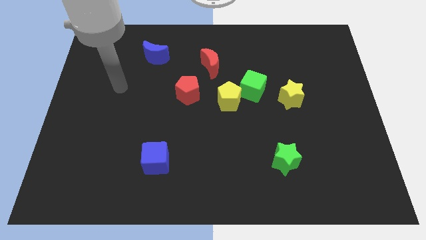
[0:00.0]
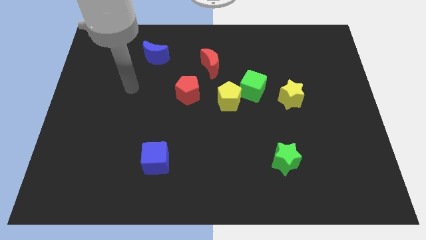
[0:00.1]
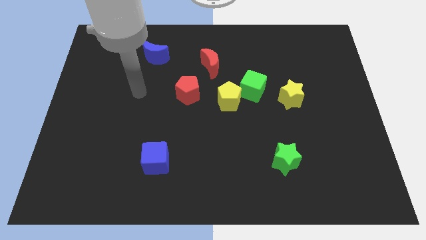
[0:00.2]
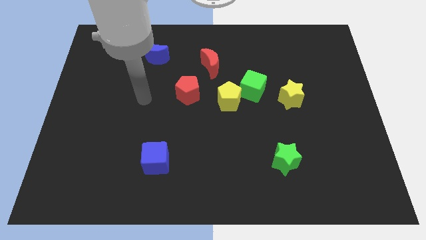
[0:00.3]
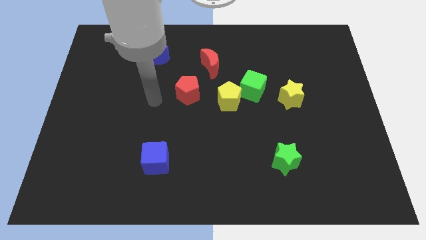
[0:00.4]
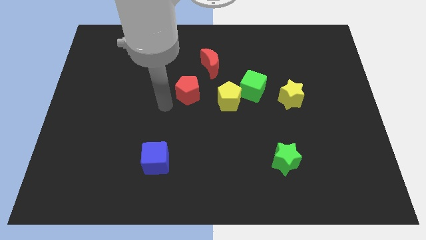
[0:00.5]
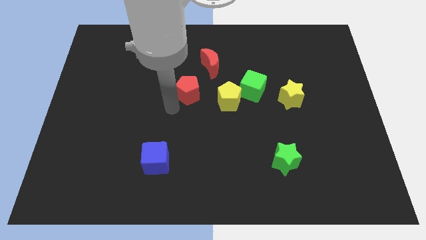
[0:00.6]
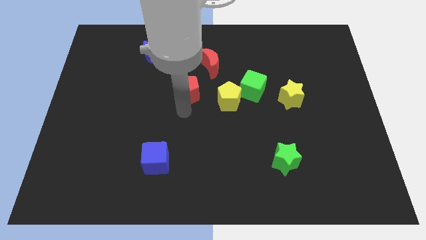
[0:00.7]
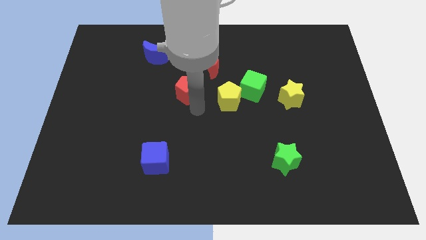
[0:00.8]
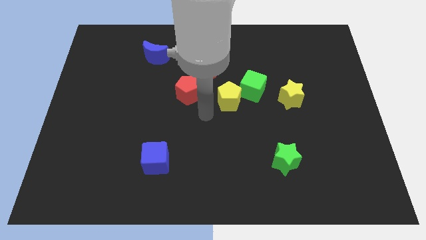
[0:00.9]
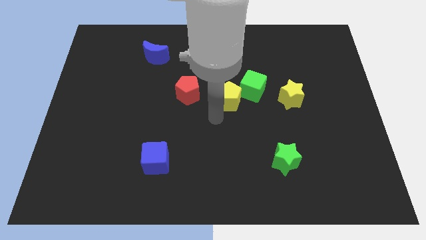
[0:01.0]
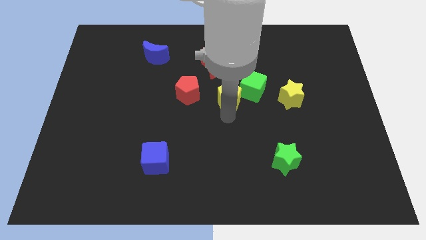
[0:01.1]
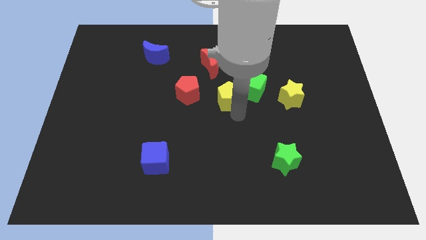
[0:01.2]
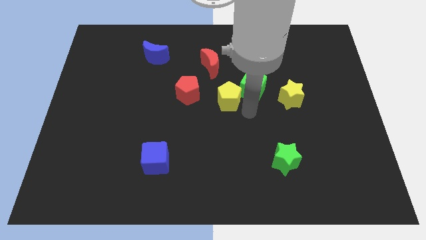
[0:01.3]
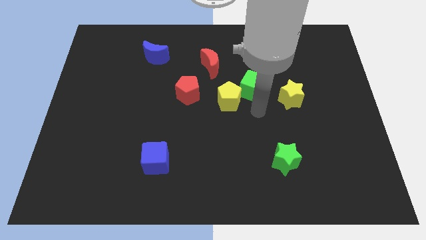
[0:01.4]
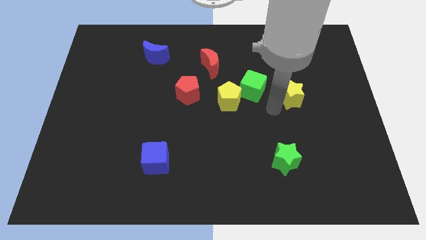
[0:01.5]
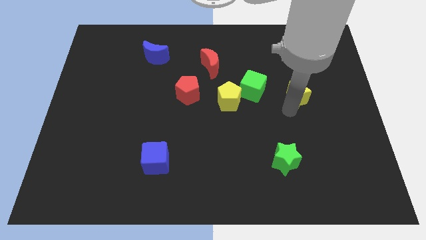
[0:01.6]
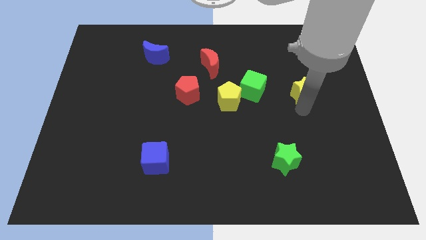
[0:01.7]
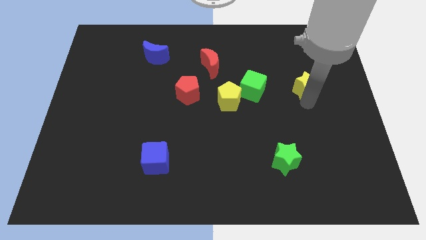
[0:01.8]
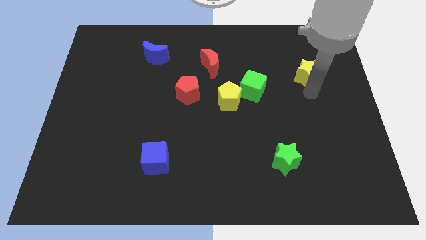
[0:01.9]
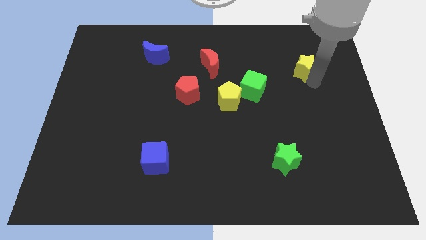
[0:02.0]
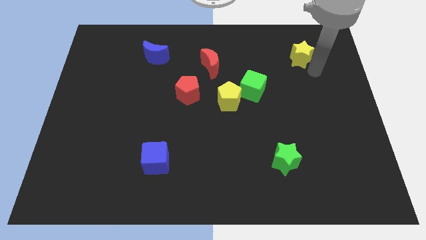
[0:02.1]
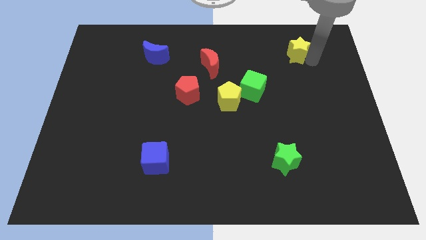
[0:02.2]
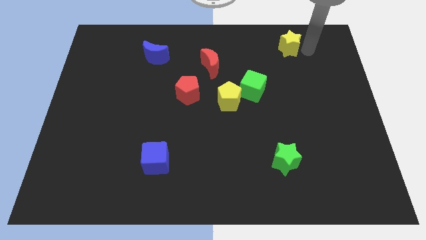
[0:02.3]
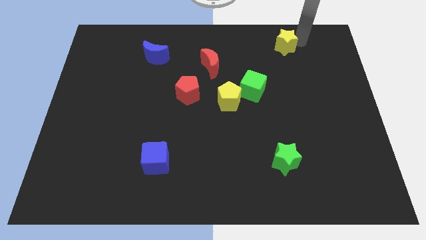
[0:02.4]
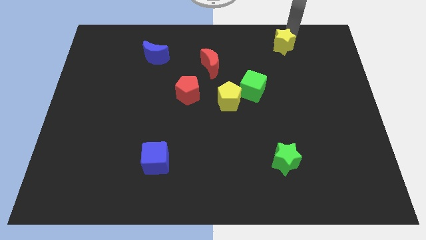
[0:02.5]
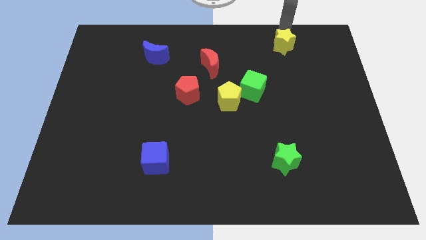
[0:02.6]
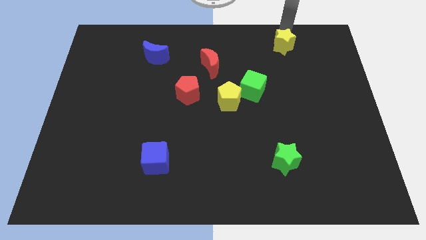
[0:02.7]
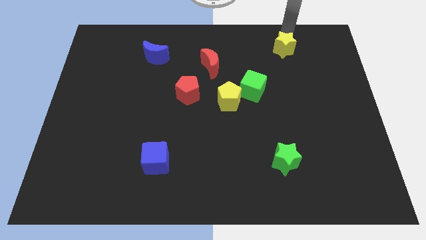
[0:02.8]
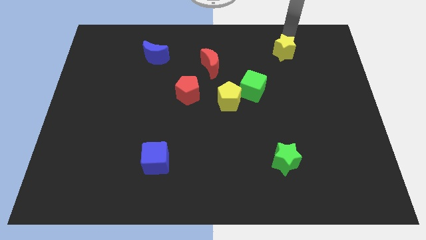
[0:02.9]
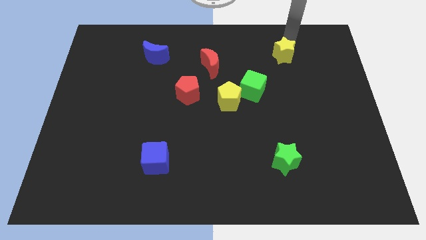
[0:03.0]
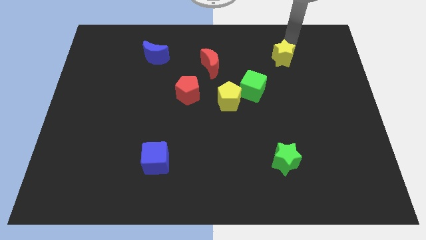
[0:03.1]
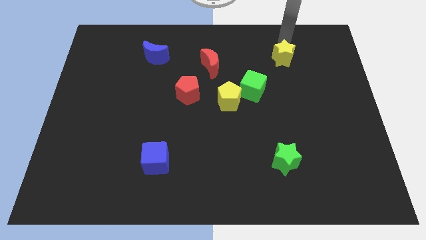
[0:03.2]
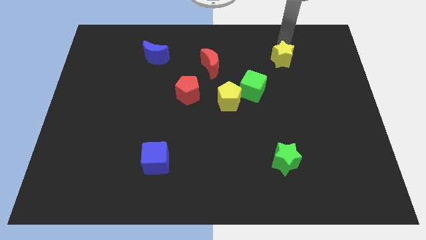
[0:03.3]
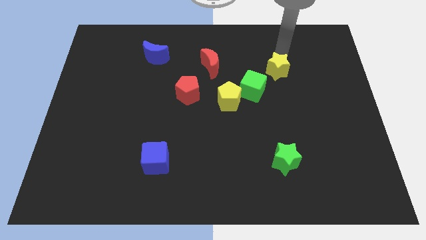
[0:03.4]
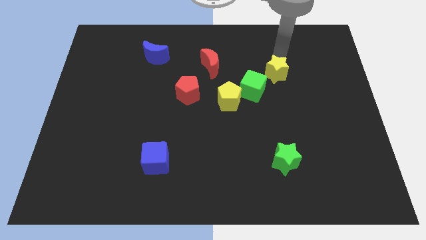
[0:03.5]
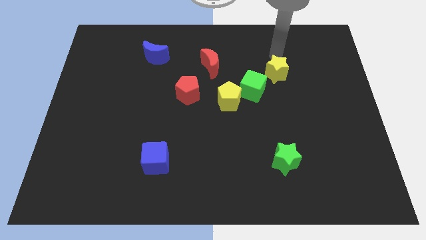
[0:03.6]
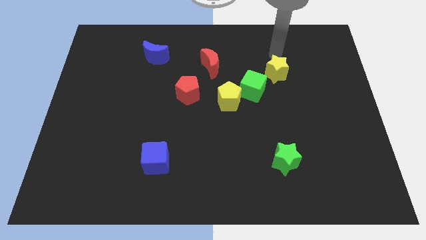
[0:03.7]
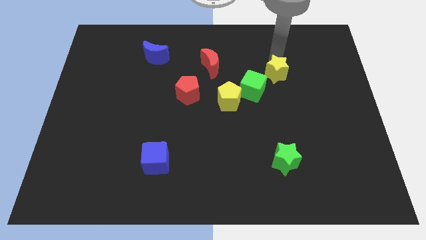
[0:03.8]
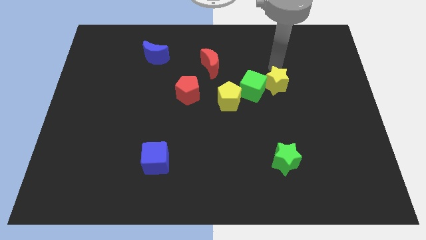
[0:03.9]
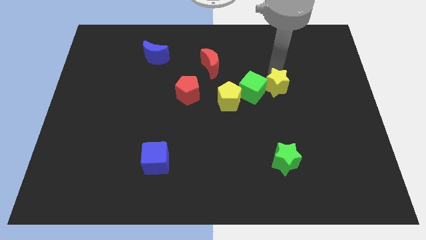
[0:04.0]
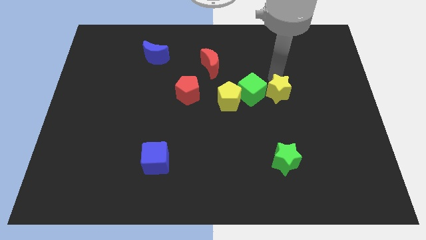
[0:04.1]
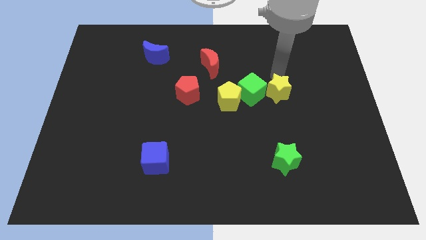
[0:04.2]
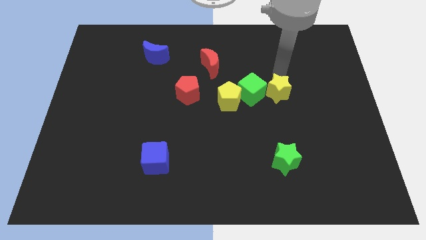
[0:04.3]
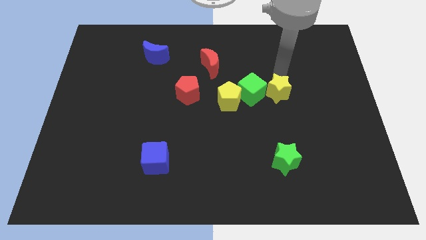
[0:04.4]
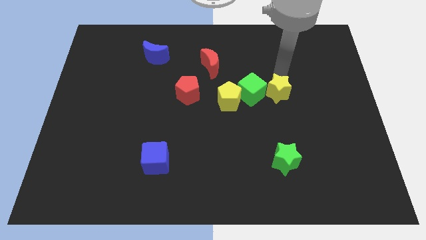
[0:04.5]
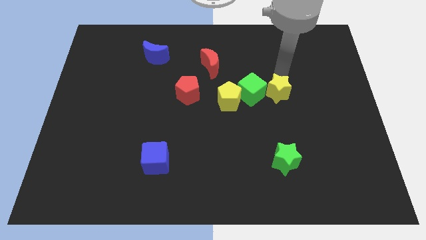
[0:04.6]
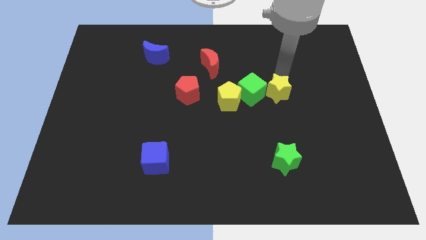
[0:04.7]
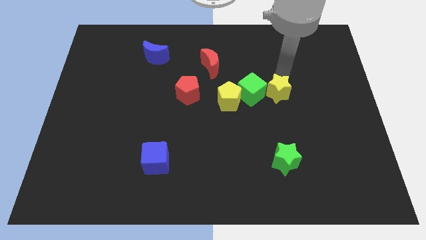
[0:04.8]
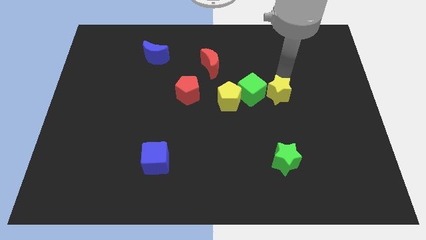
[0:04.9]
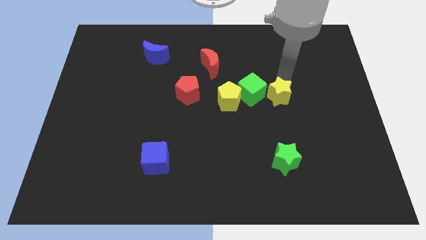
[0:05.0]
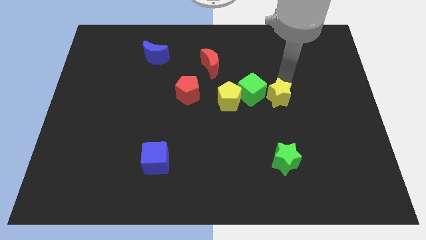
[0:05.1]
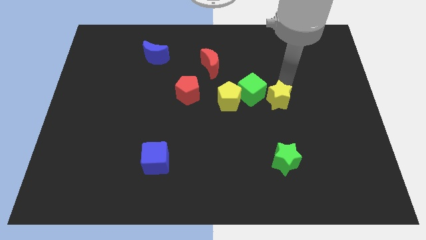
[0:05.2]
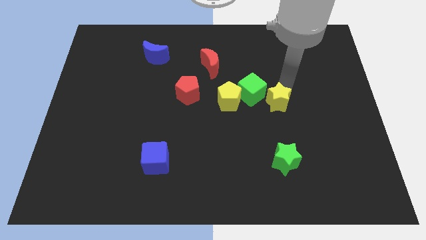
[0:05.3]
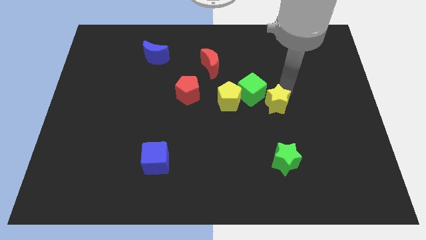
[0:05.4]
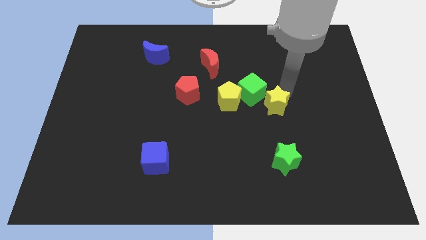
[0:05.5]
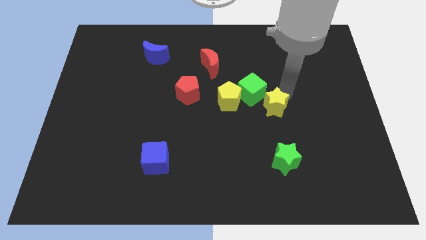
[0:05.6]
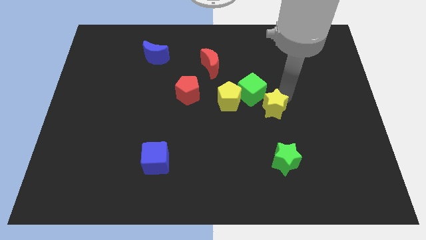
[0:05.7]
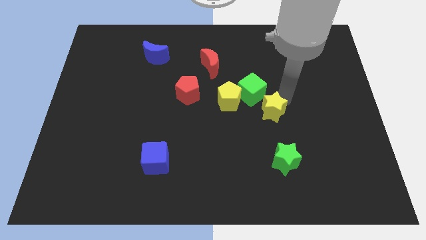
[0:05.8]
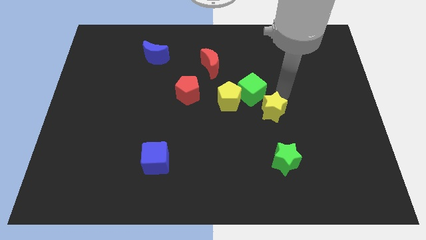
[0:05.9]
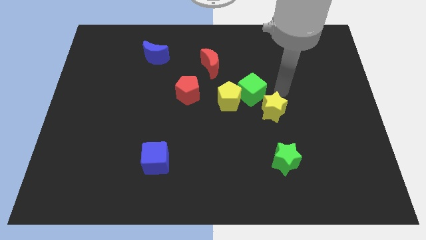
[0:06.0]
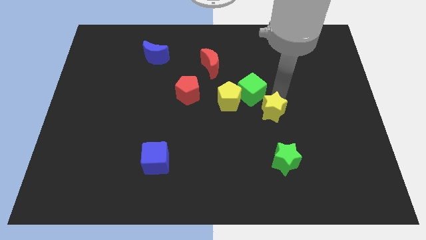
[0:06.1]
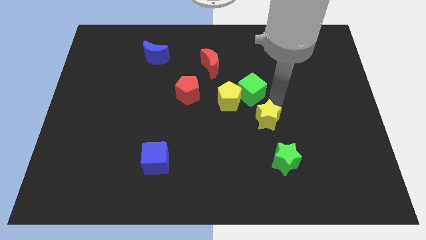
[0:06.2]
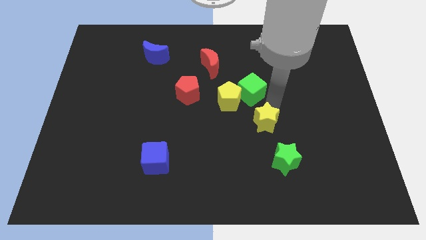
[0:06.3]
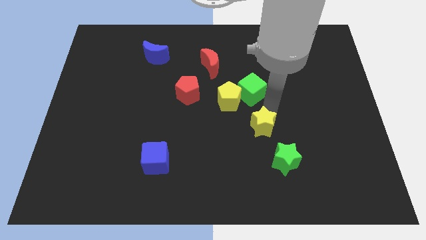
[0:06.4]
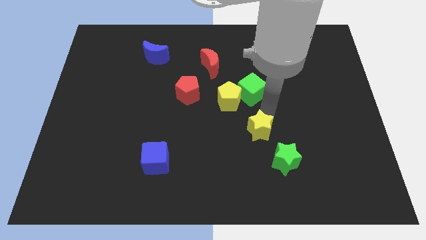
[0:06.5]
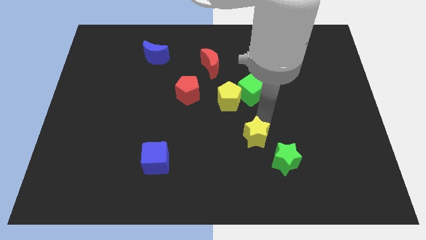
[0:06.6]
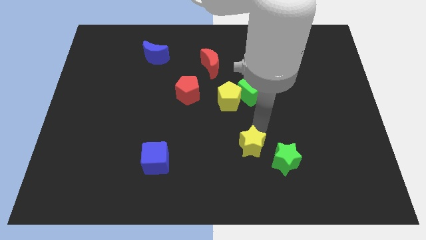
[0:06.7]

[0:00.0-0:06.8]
push the yellow star to the left of the green star
